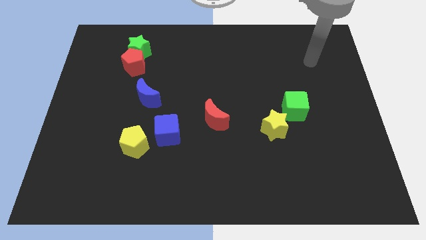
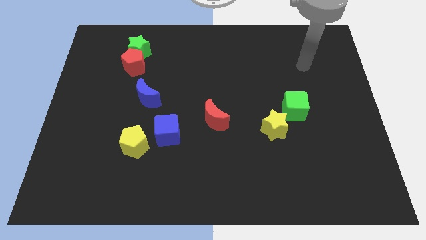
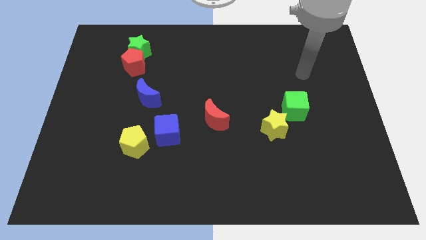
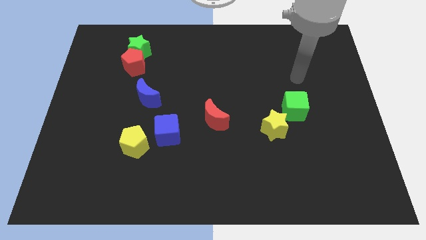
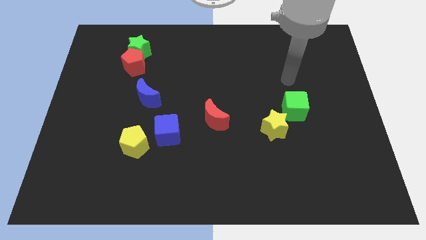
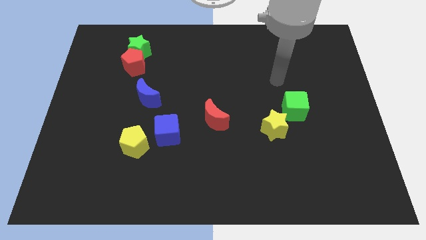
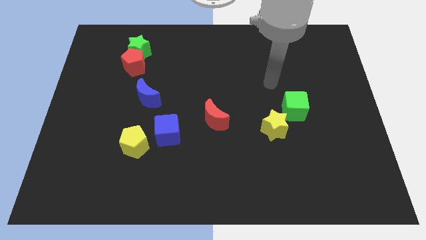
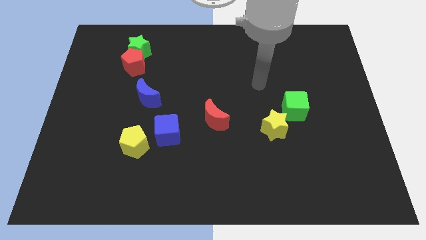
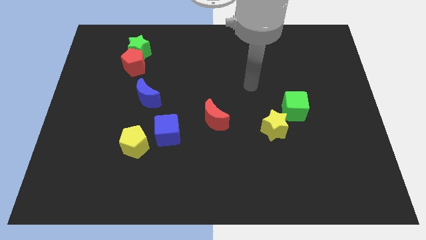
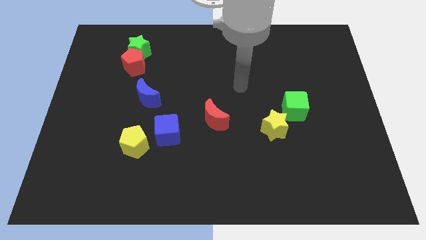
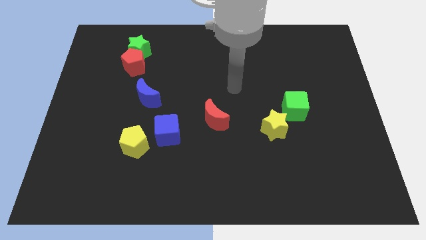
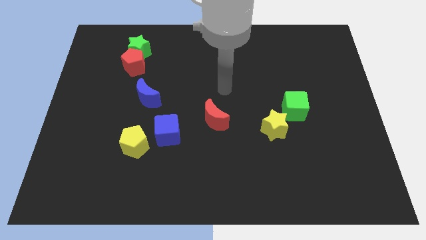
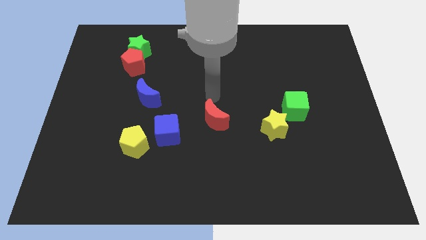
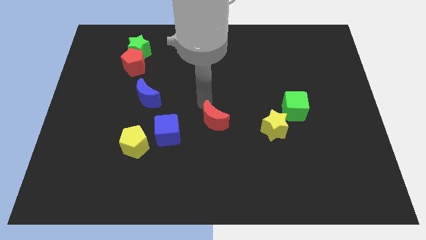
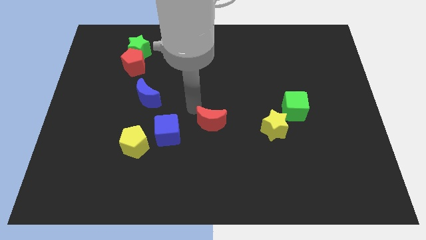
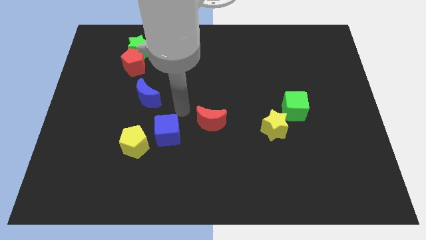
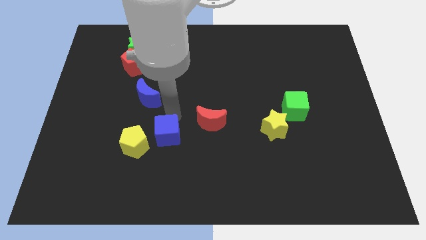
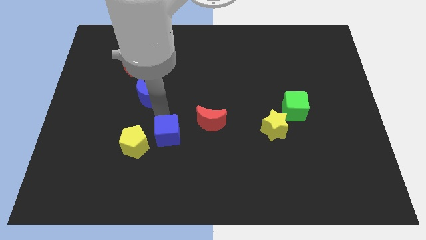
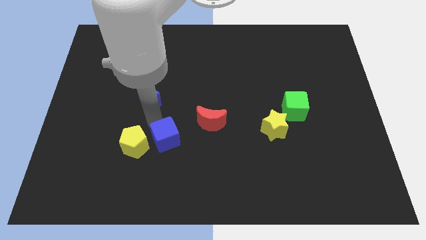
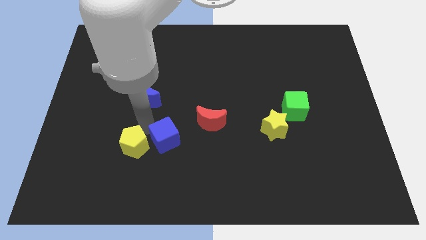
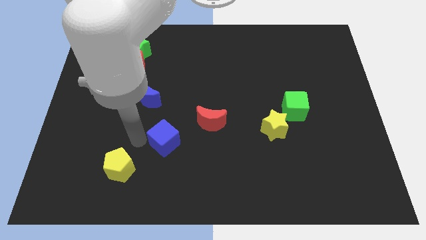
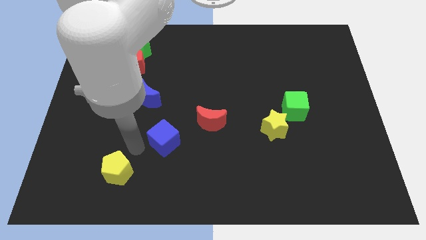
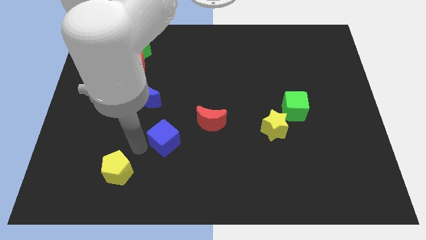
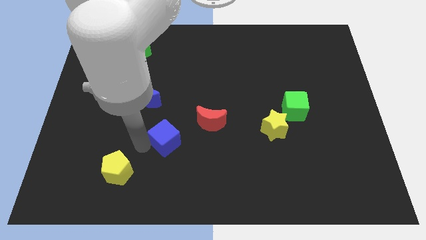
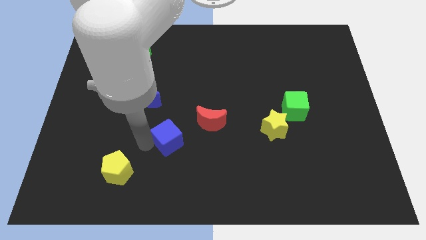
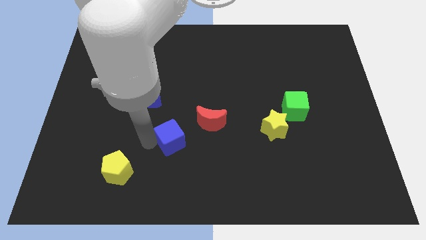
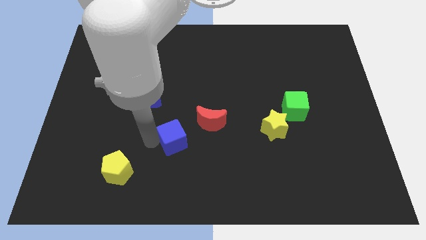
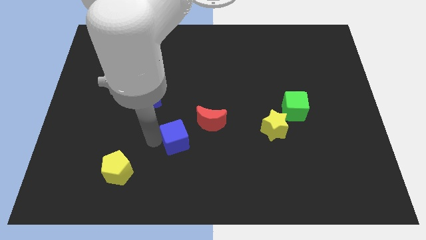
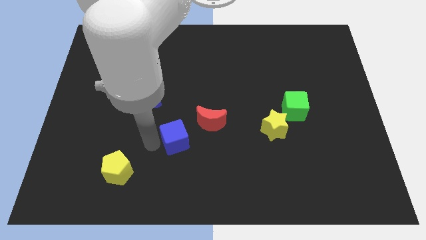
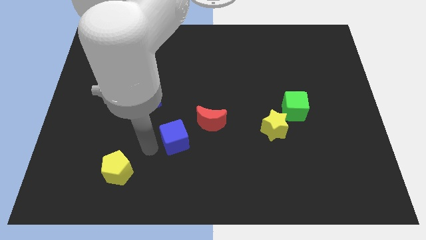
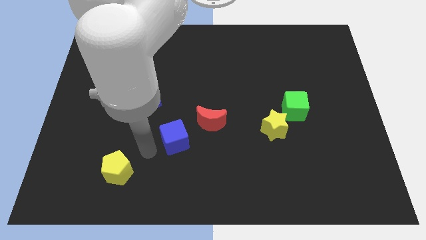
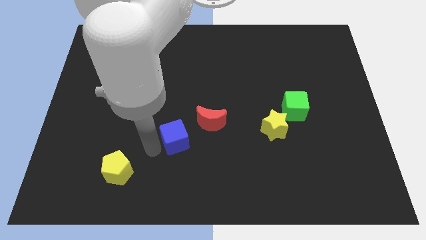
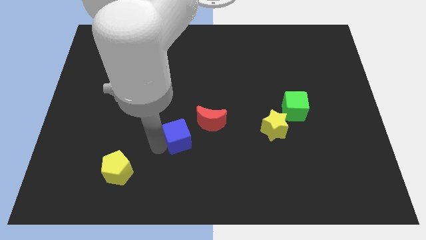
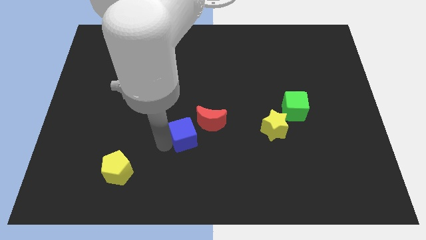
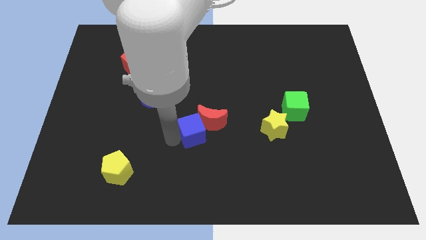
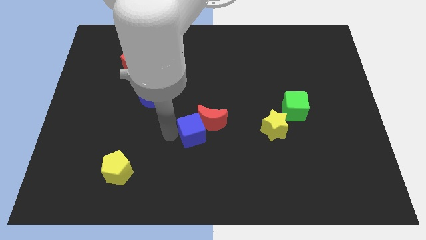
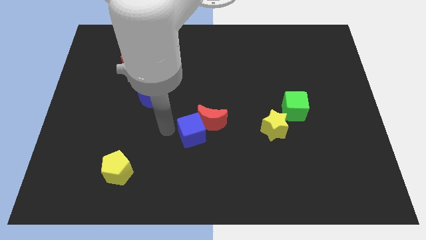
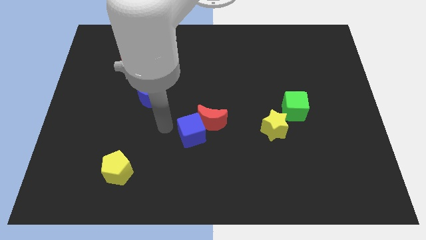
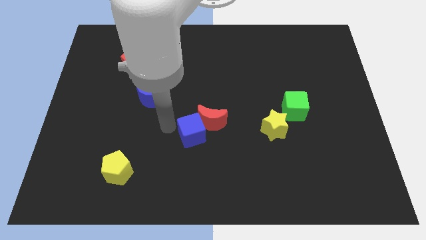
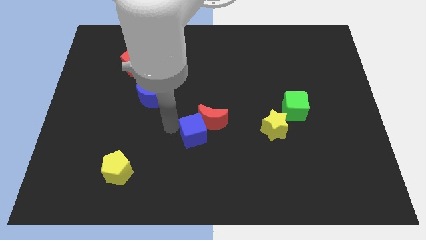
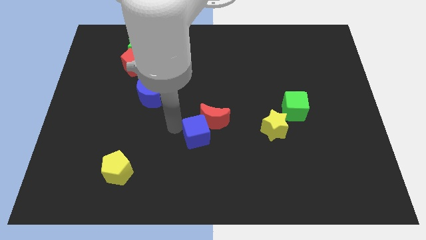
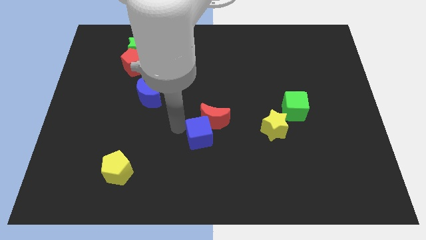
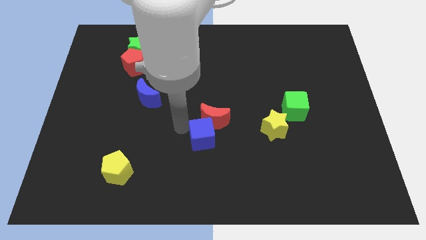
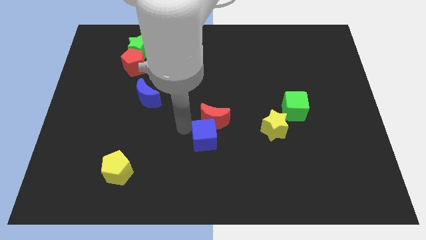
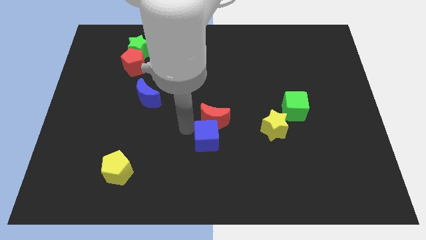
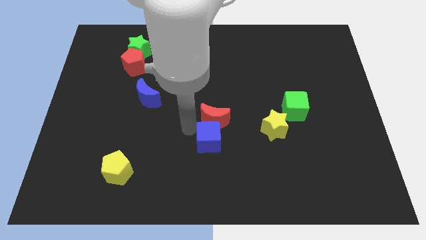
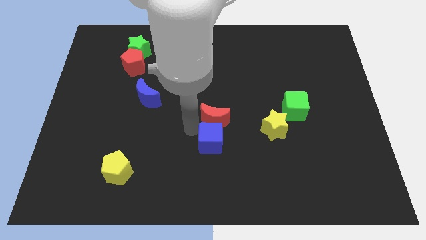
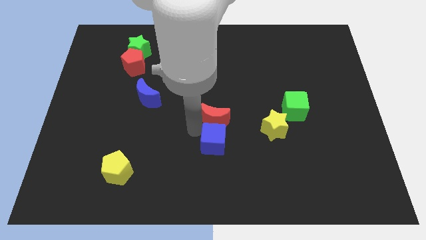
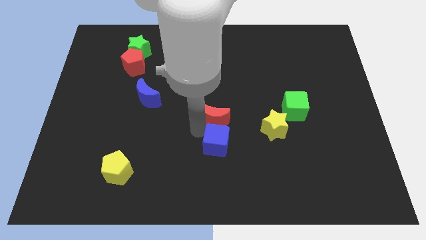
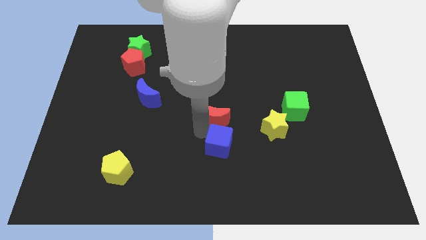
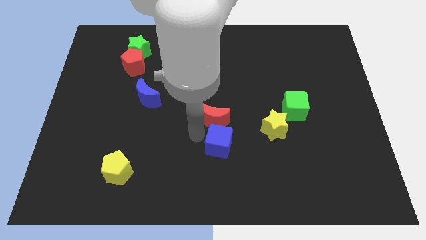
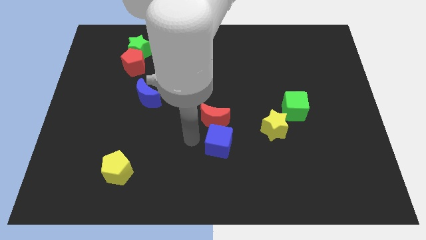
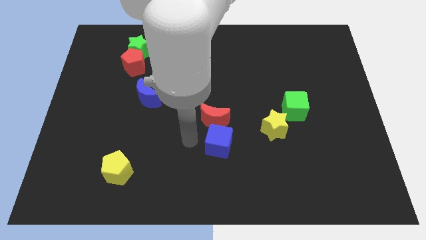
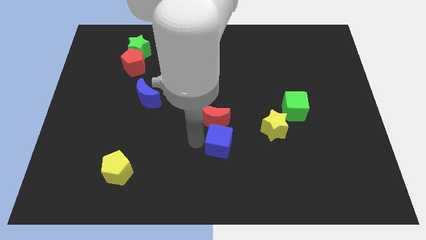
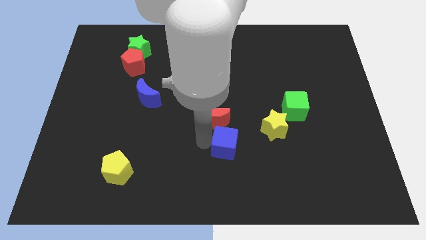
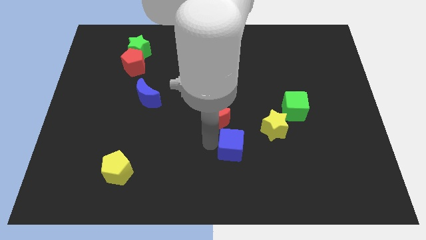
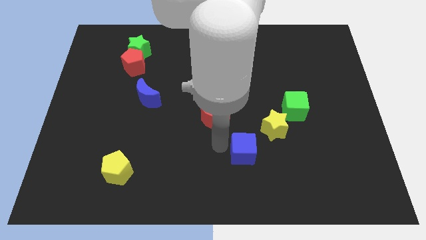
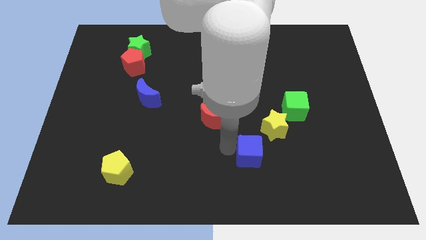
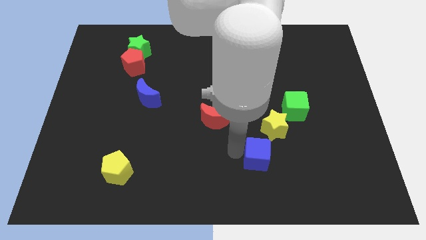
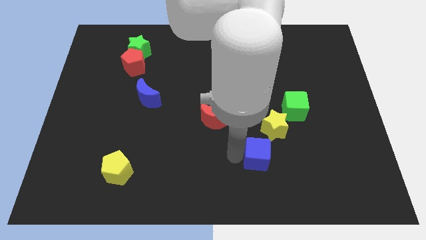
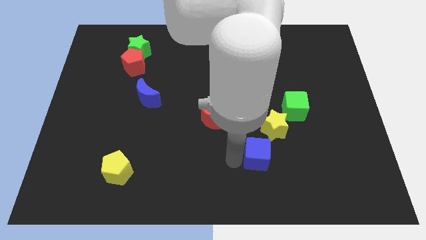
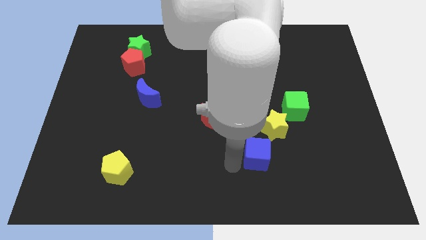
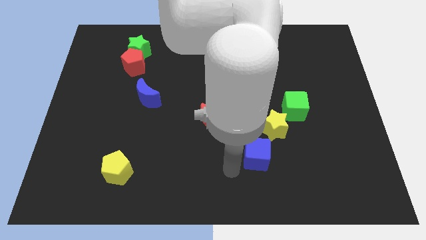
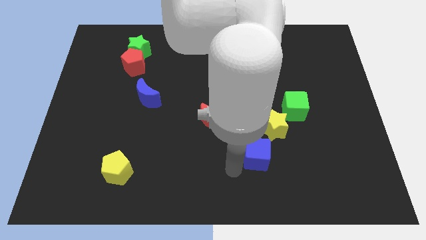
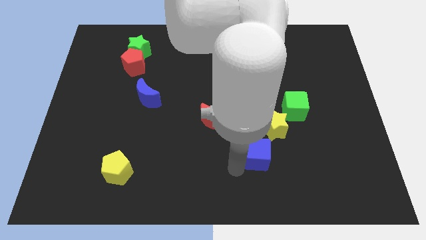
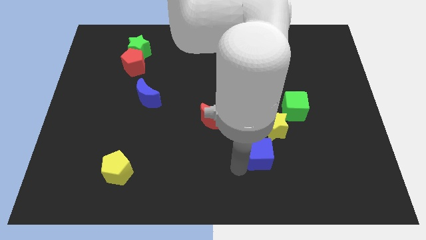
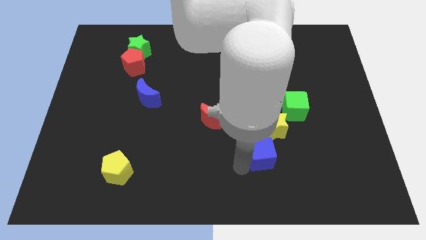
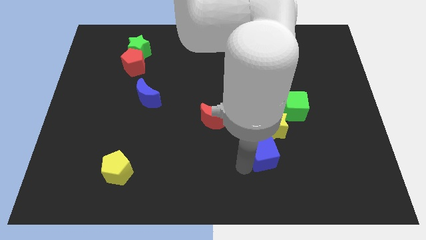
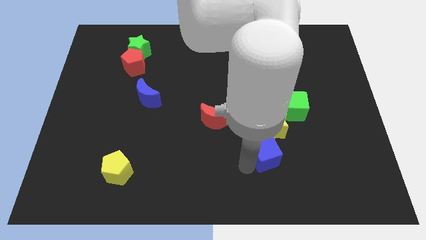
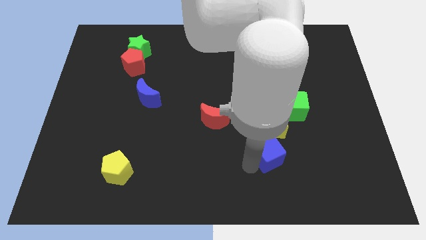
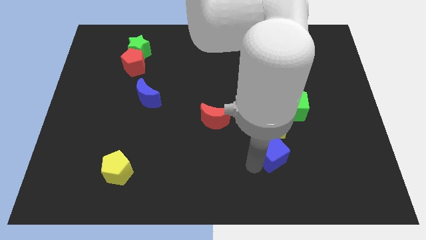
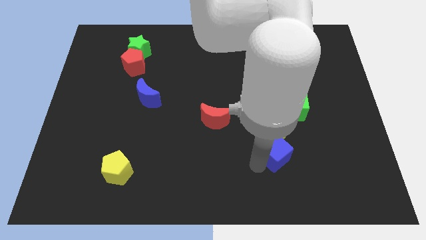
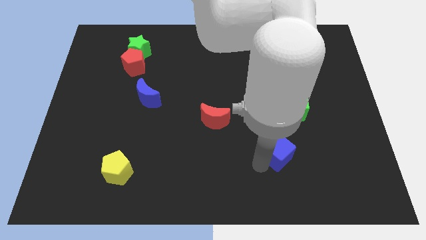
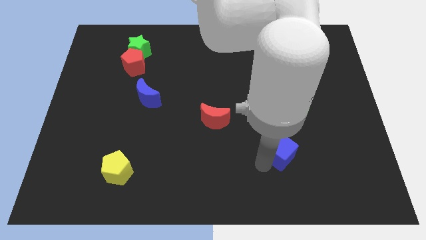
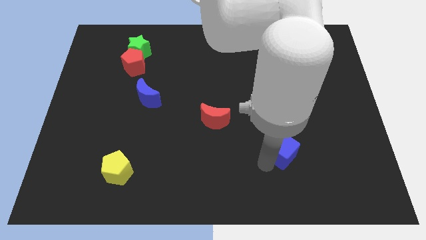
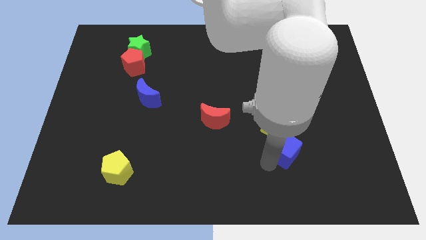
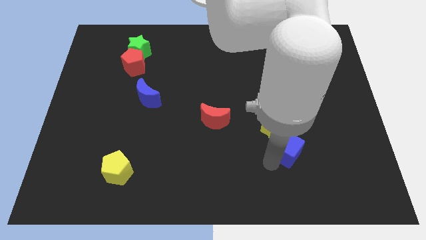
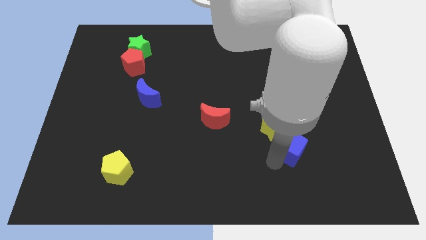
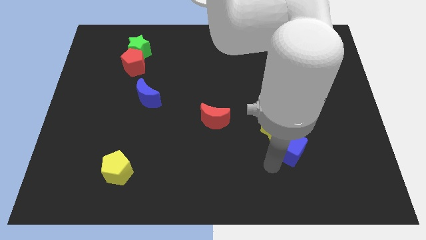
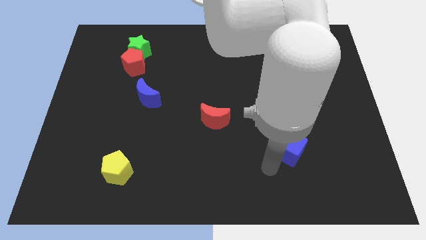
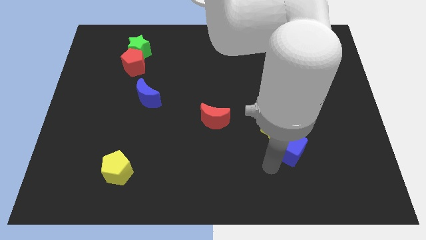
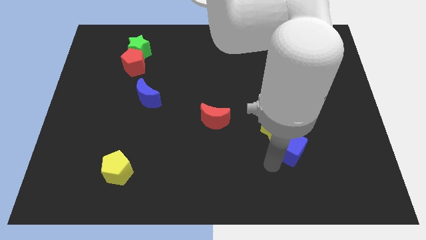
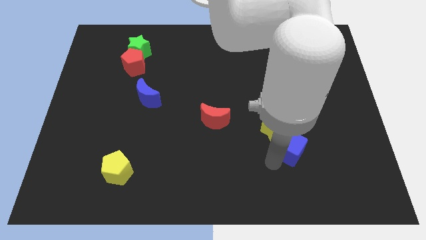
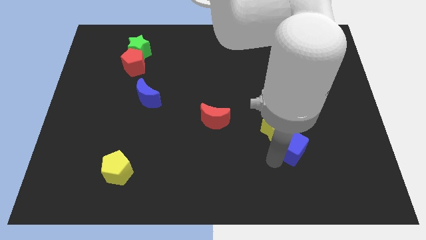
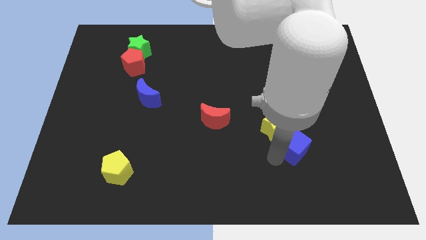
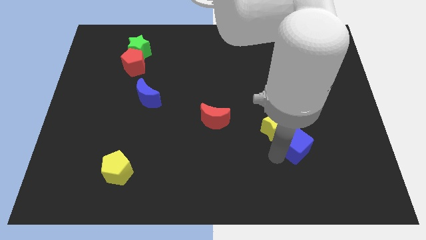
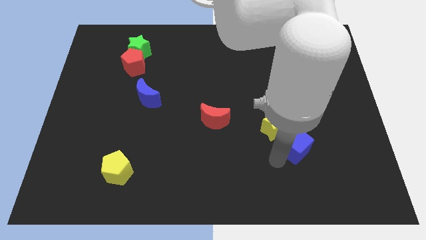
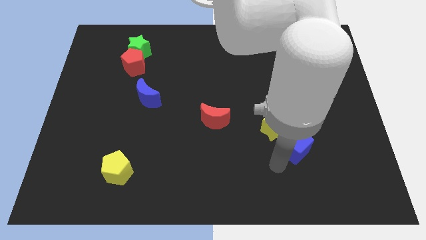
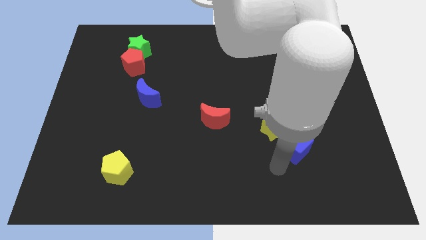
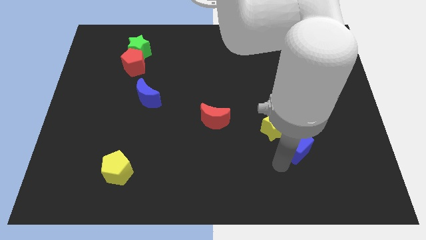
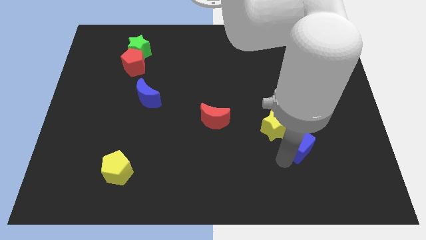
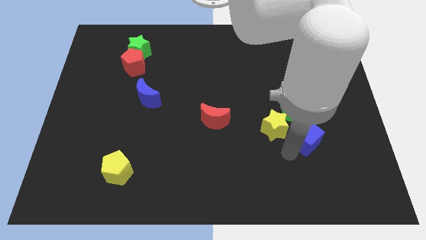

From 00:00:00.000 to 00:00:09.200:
push the blue cube to the bottom right of the green cube
